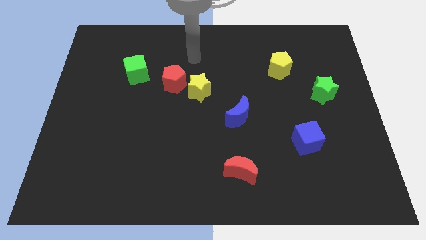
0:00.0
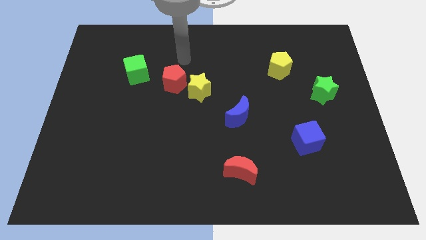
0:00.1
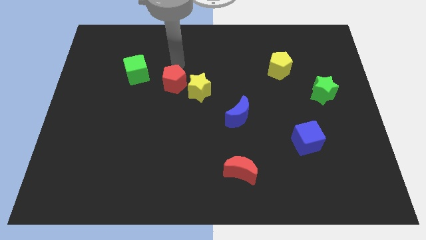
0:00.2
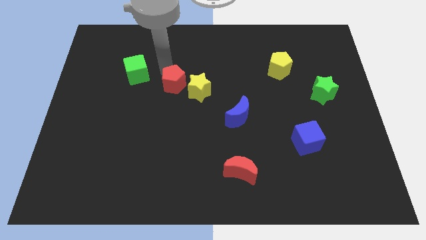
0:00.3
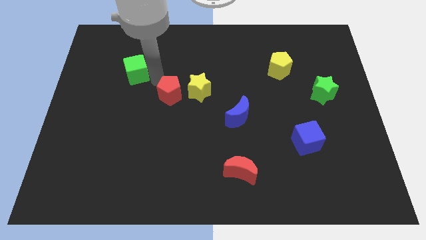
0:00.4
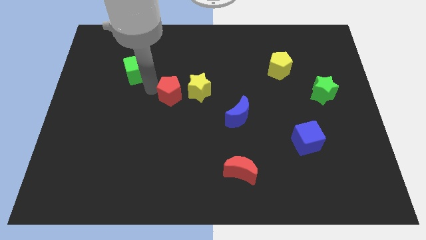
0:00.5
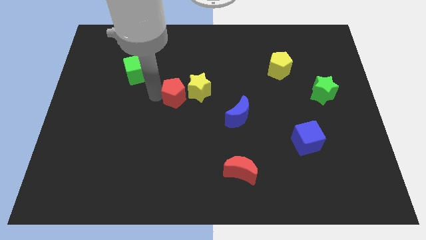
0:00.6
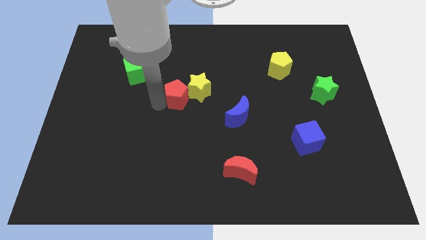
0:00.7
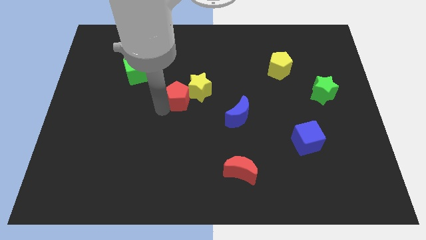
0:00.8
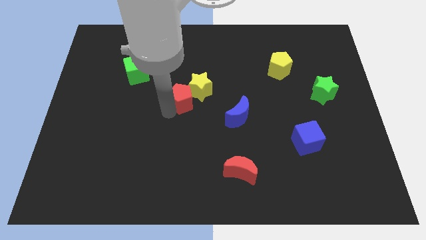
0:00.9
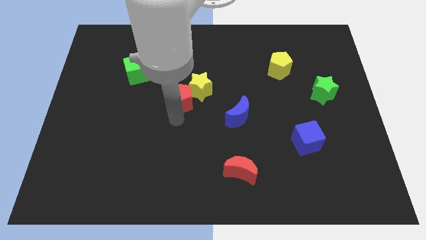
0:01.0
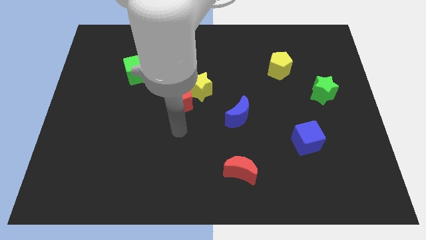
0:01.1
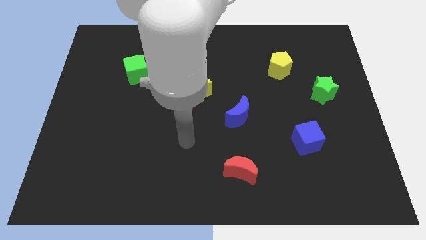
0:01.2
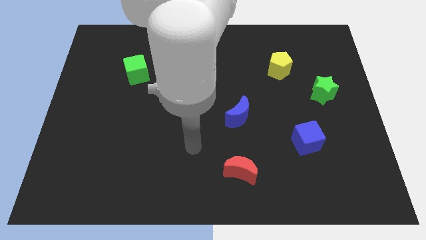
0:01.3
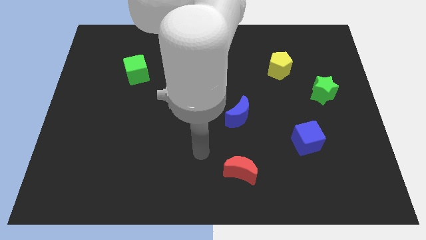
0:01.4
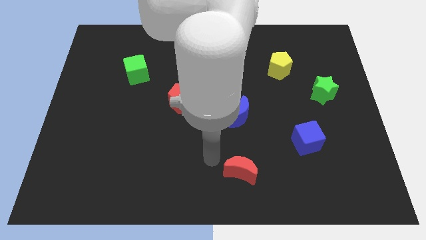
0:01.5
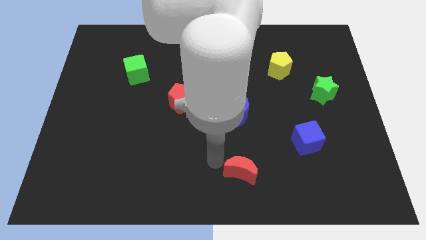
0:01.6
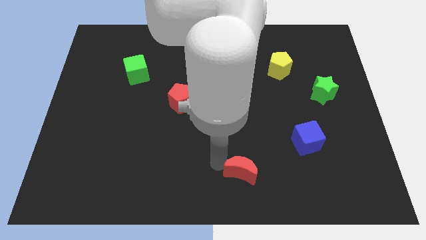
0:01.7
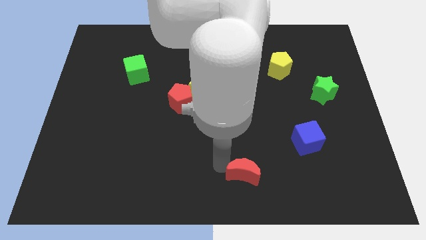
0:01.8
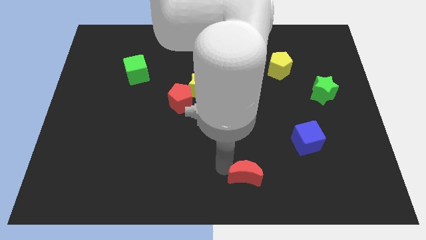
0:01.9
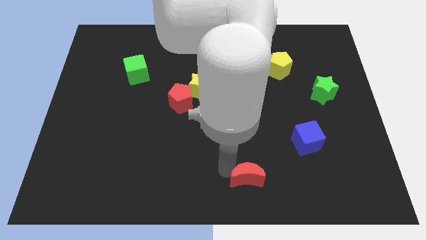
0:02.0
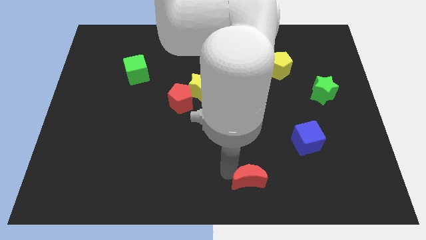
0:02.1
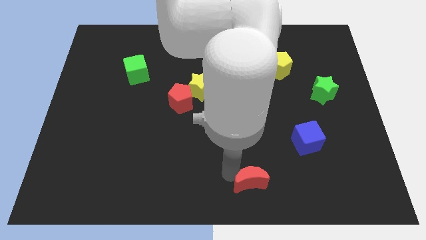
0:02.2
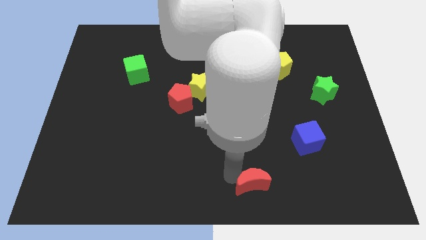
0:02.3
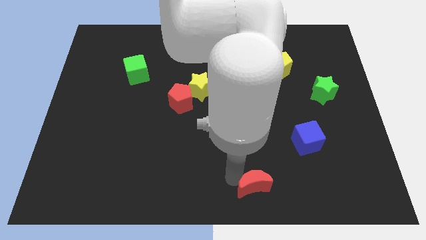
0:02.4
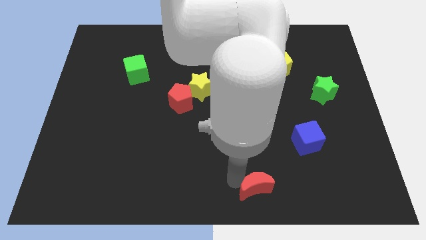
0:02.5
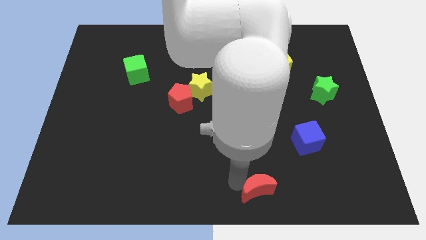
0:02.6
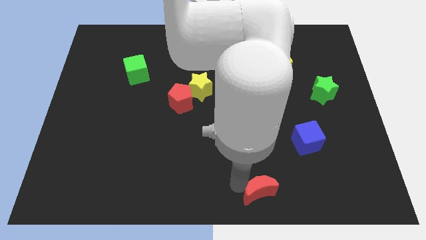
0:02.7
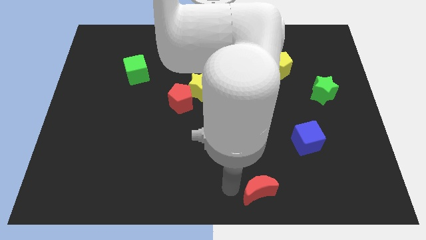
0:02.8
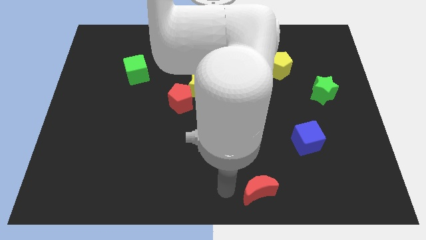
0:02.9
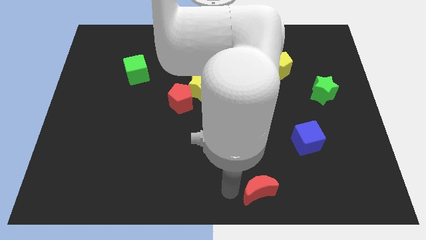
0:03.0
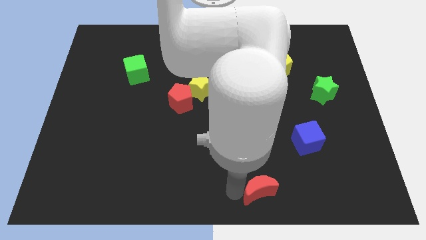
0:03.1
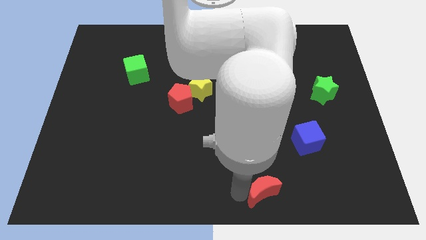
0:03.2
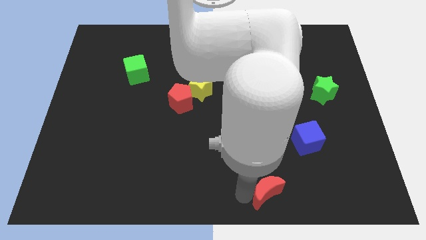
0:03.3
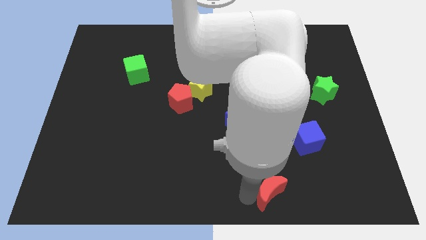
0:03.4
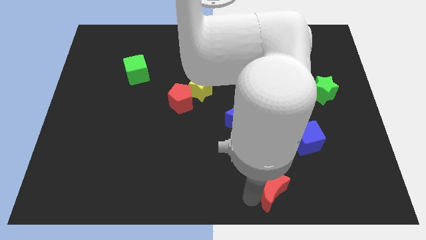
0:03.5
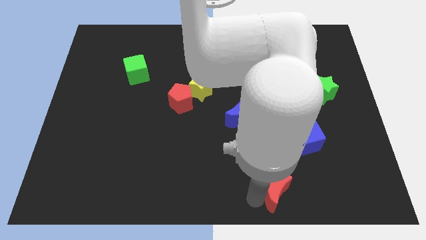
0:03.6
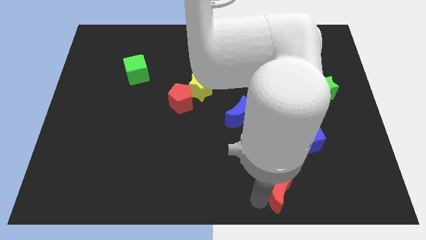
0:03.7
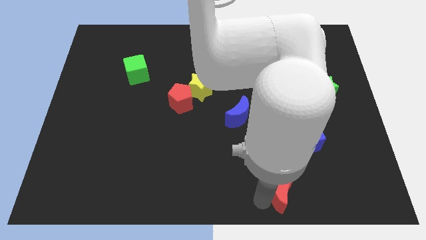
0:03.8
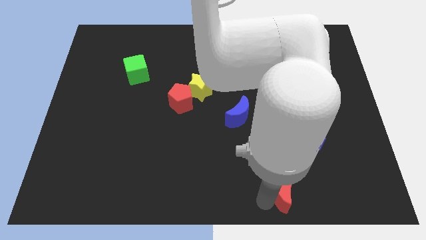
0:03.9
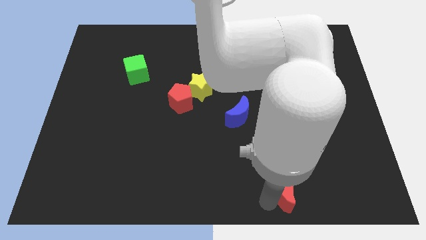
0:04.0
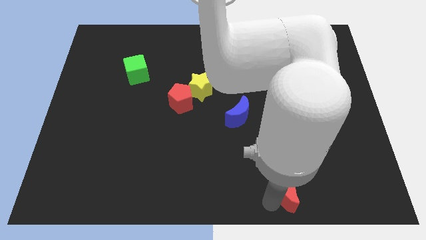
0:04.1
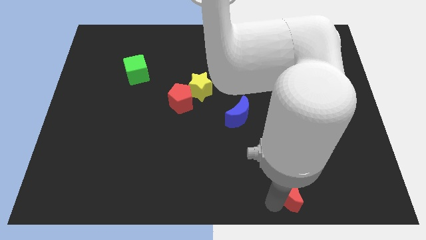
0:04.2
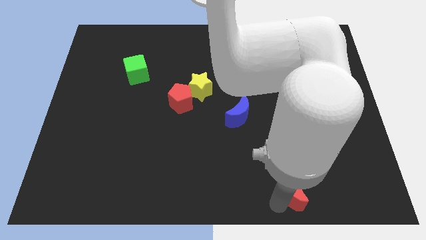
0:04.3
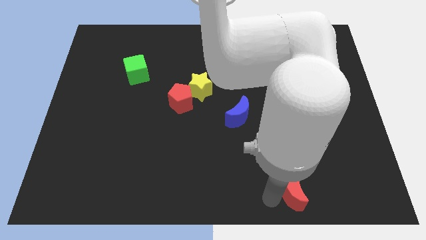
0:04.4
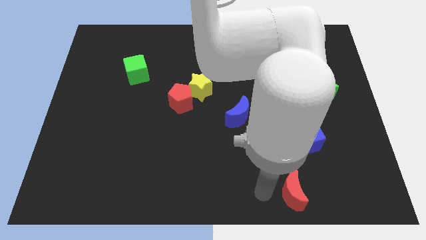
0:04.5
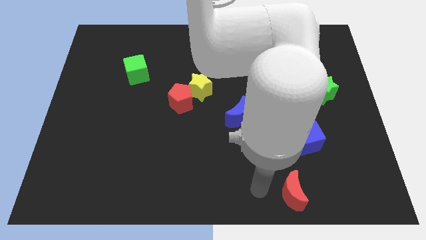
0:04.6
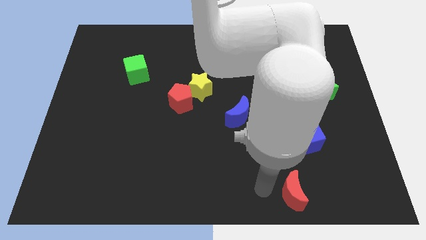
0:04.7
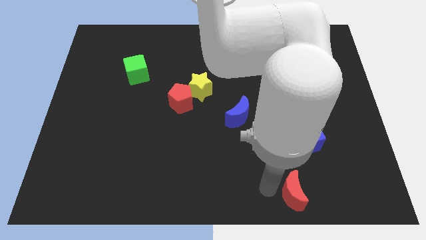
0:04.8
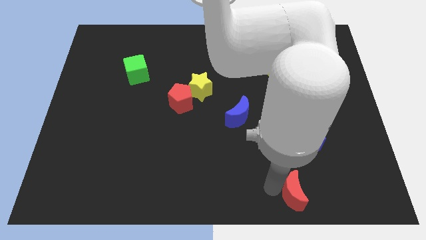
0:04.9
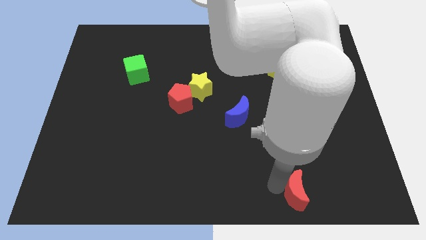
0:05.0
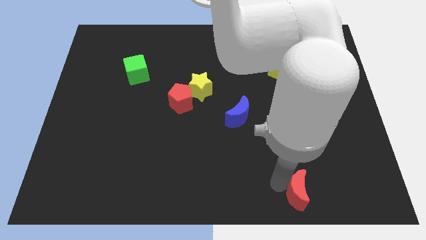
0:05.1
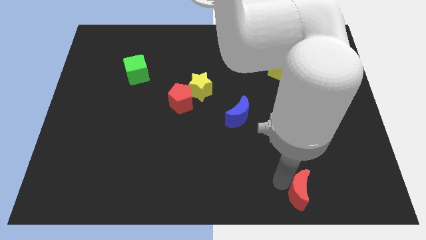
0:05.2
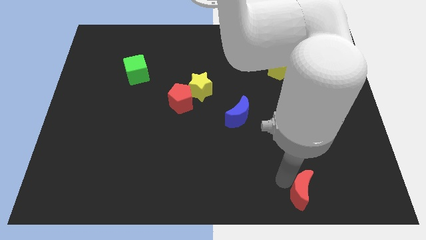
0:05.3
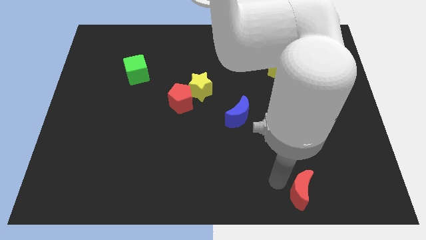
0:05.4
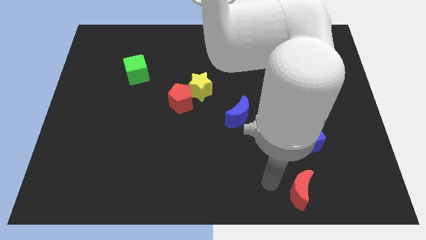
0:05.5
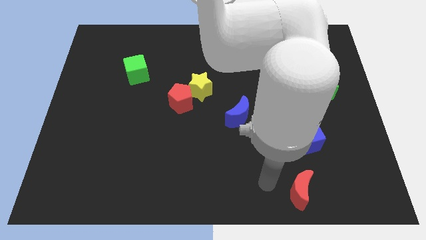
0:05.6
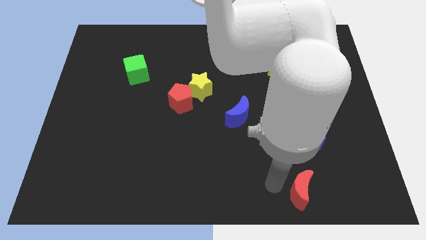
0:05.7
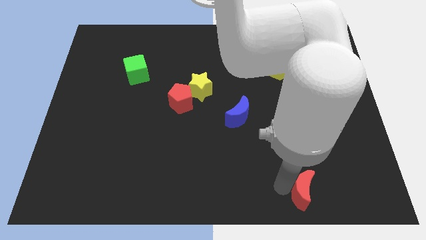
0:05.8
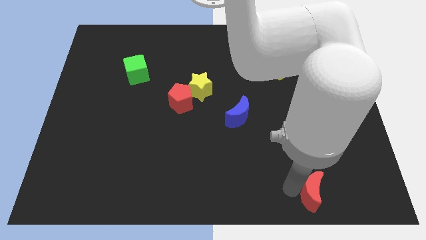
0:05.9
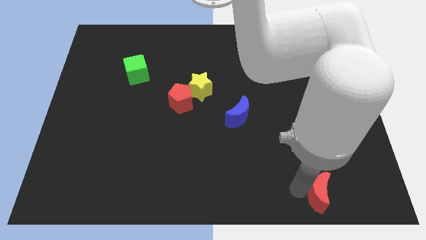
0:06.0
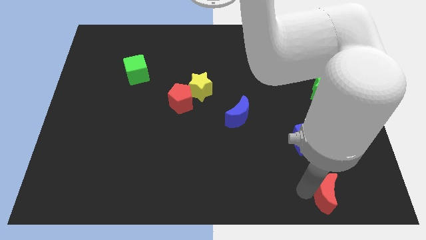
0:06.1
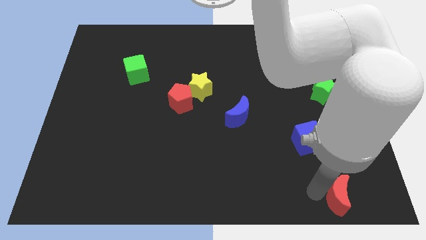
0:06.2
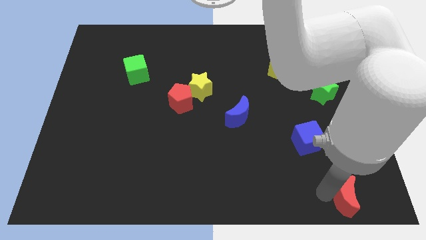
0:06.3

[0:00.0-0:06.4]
slide the red moon to the lower right corner

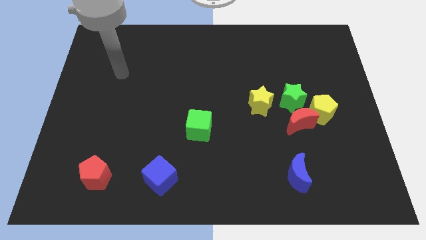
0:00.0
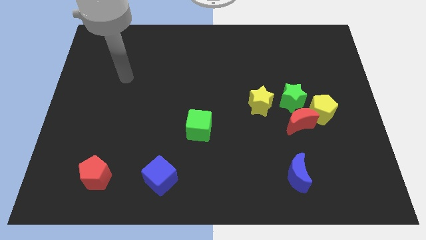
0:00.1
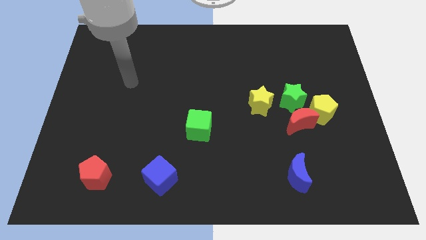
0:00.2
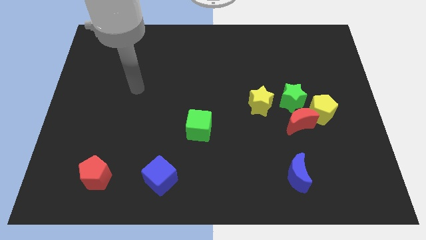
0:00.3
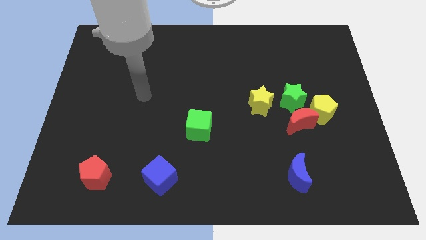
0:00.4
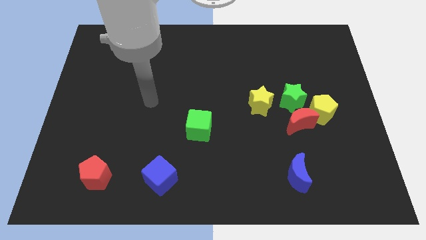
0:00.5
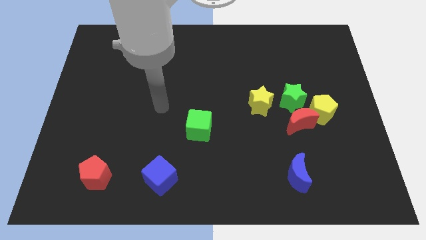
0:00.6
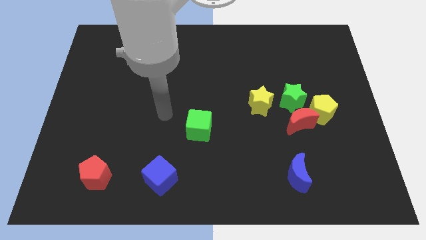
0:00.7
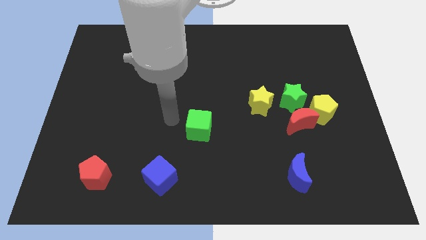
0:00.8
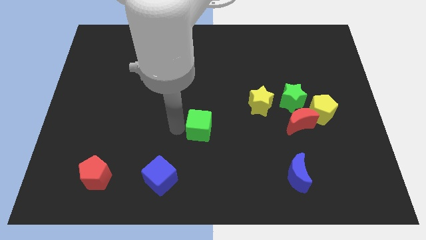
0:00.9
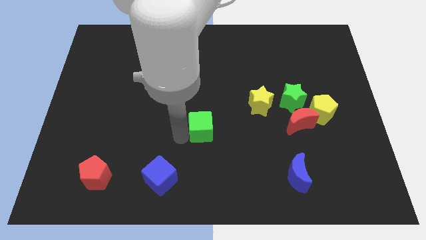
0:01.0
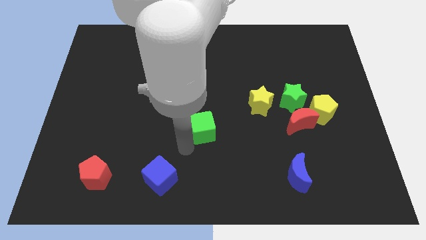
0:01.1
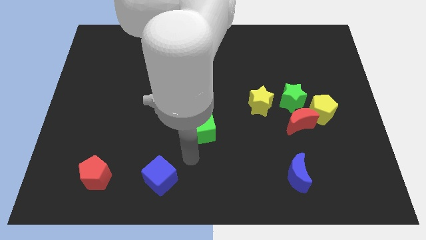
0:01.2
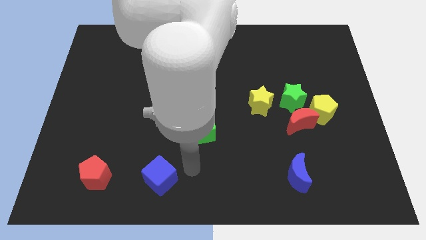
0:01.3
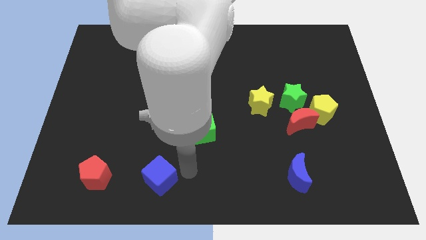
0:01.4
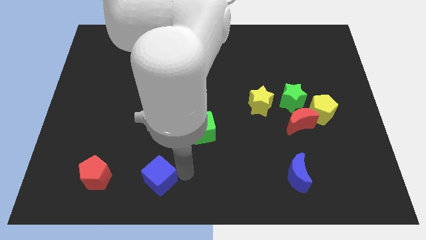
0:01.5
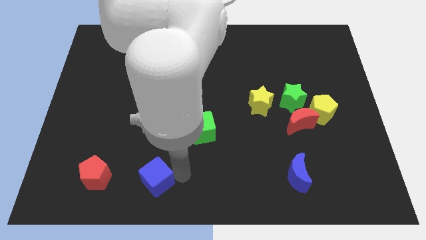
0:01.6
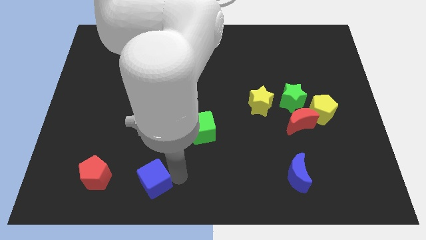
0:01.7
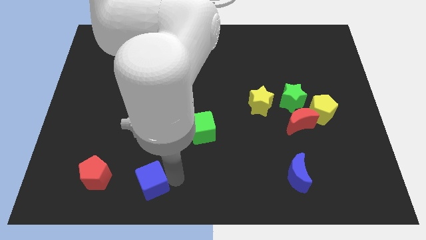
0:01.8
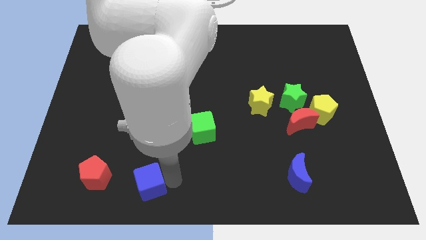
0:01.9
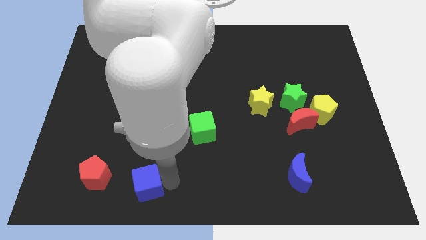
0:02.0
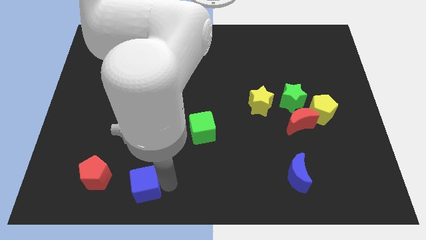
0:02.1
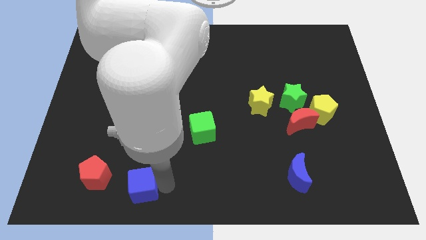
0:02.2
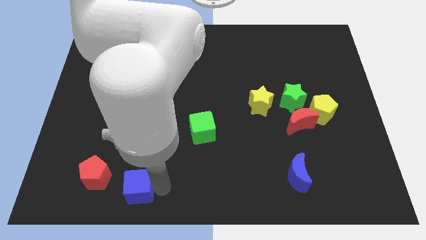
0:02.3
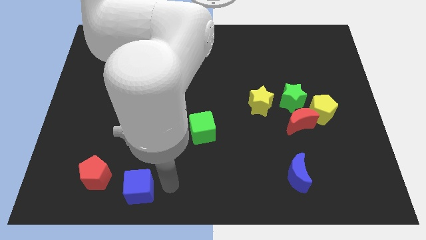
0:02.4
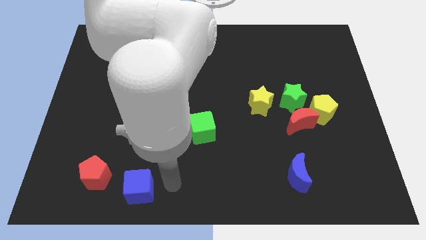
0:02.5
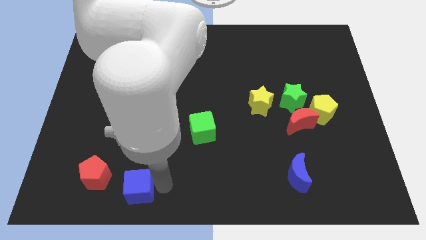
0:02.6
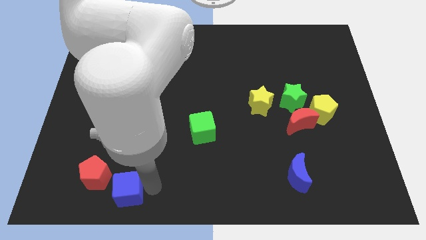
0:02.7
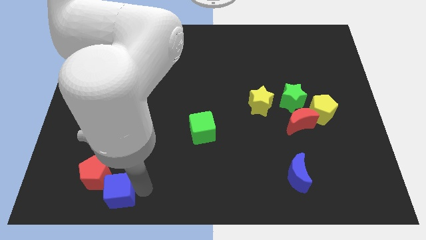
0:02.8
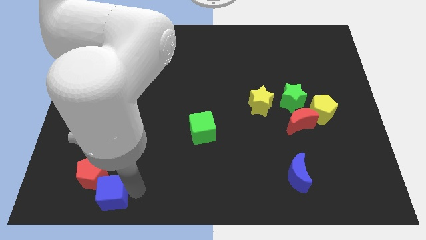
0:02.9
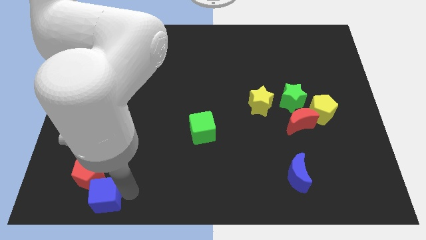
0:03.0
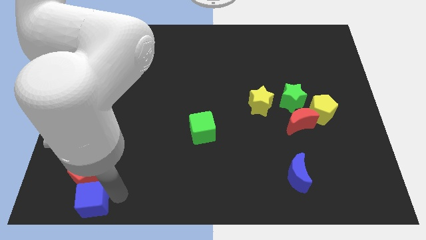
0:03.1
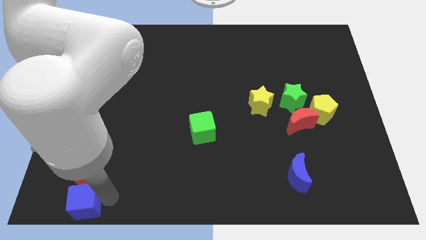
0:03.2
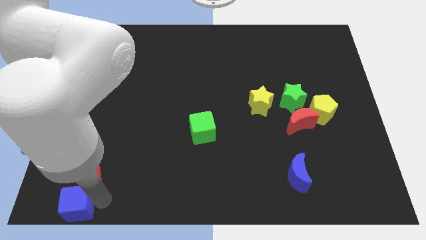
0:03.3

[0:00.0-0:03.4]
push the blue cube to the lower left corner
